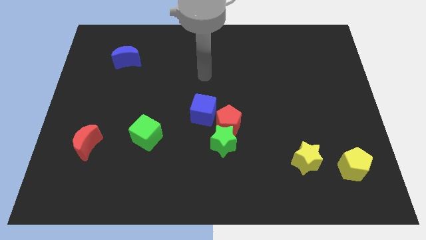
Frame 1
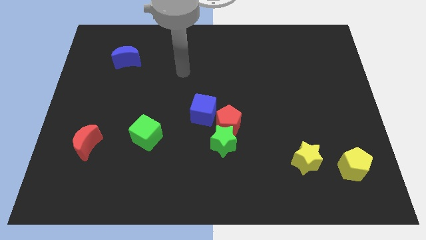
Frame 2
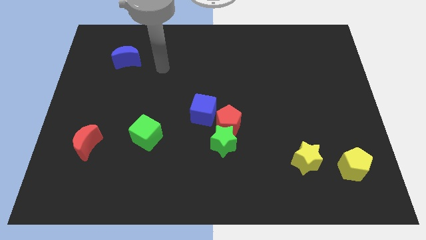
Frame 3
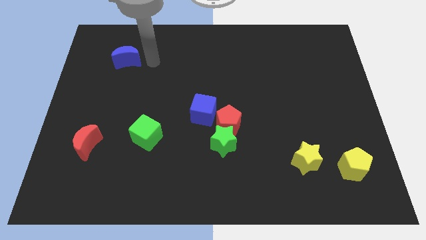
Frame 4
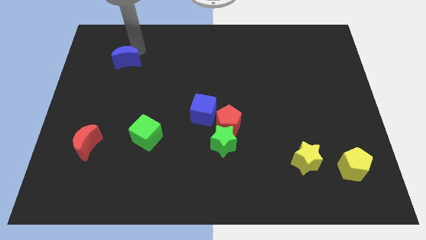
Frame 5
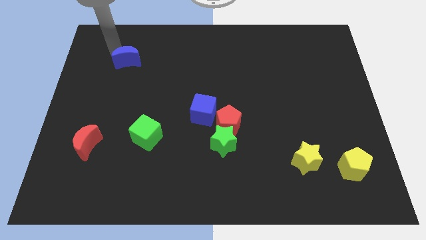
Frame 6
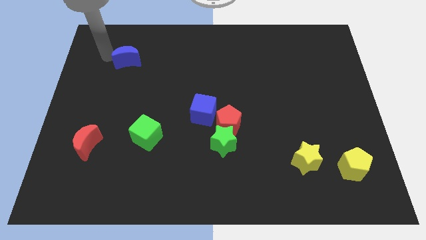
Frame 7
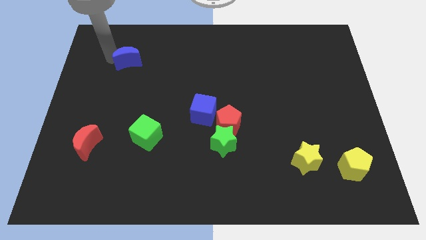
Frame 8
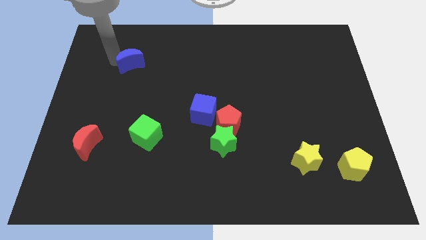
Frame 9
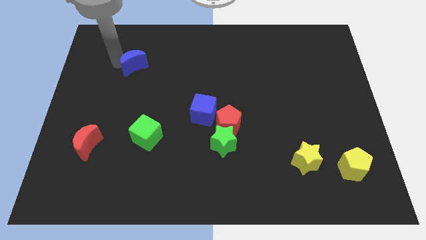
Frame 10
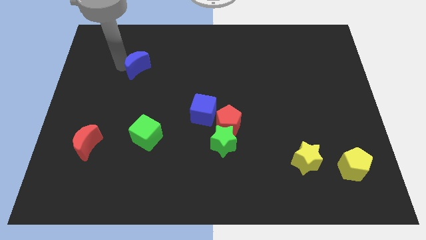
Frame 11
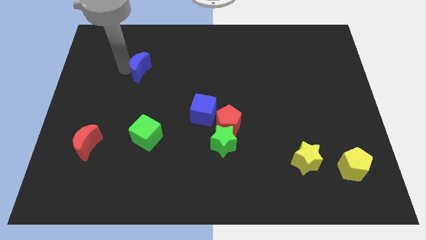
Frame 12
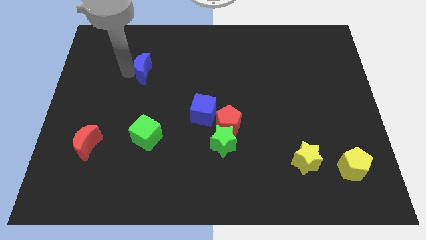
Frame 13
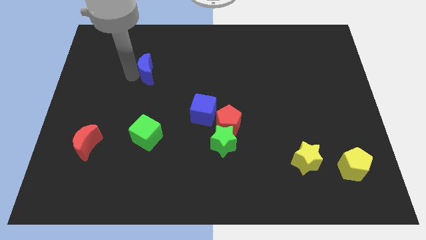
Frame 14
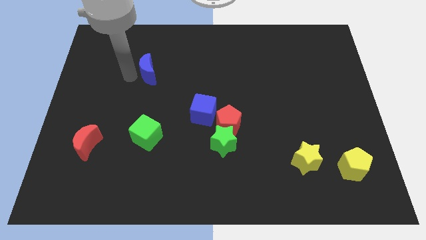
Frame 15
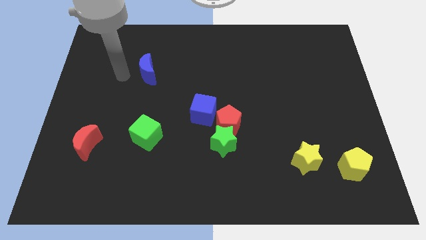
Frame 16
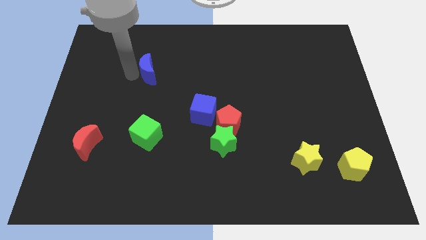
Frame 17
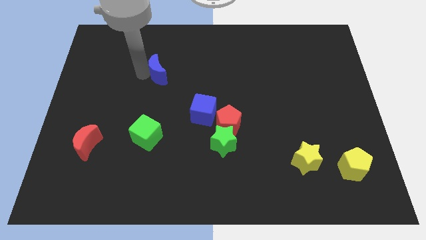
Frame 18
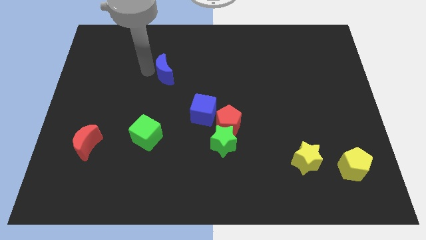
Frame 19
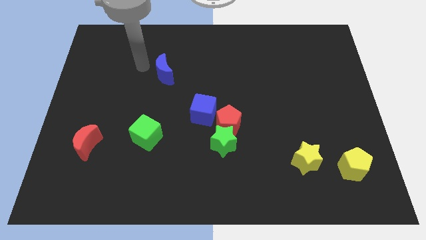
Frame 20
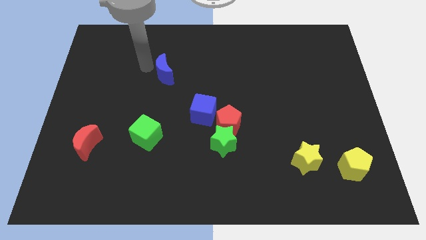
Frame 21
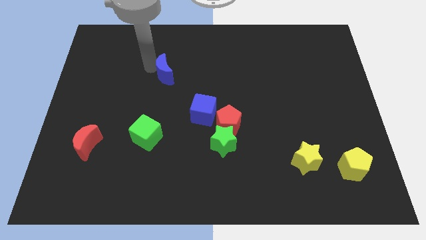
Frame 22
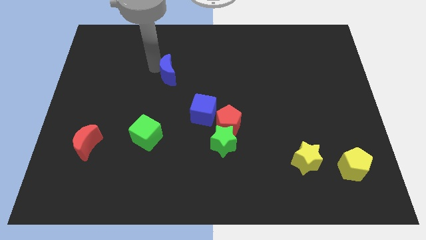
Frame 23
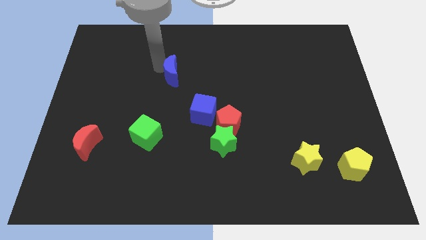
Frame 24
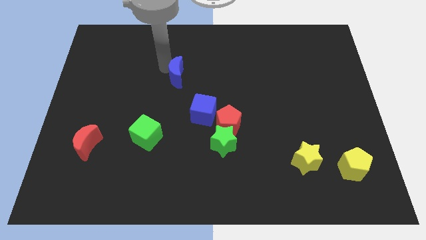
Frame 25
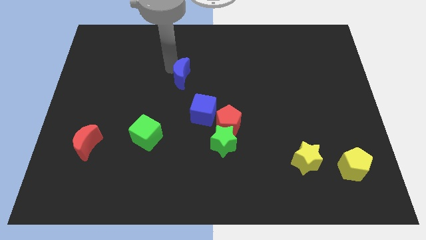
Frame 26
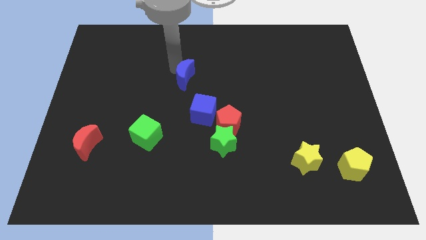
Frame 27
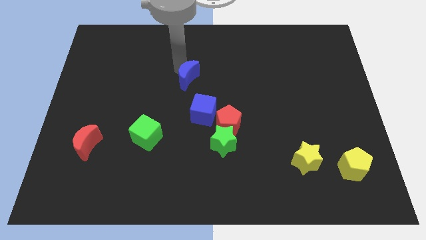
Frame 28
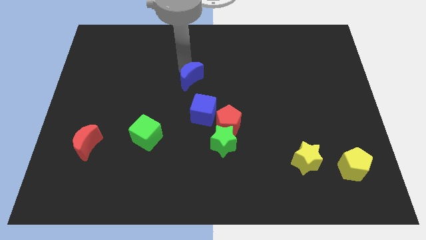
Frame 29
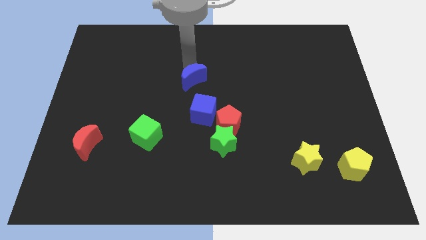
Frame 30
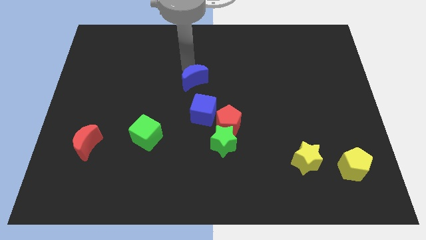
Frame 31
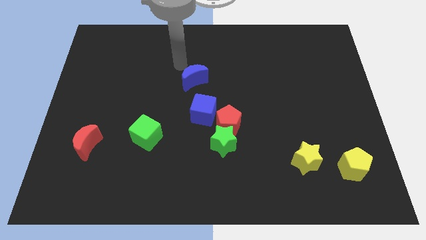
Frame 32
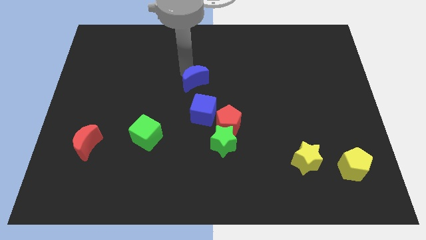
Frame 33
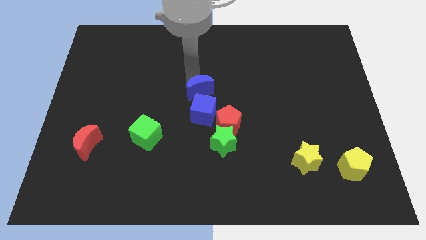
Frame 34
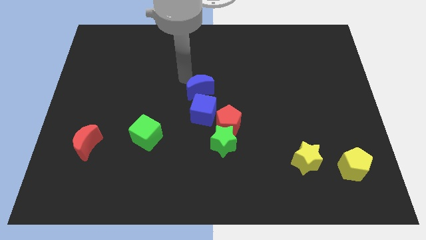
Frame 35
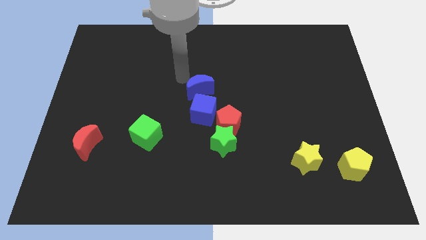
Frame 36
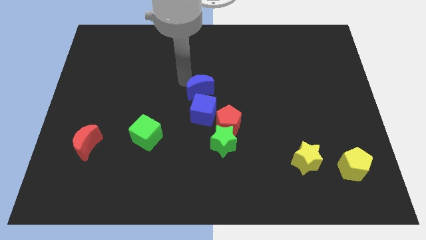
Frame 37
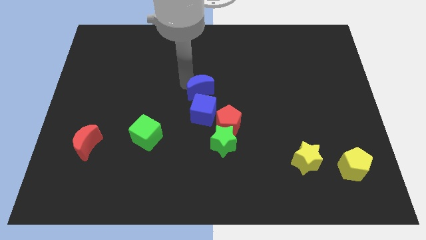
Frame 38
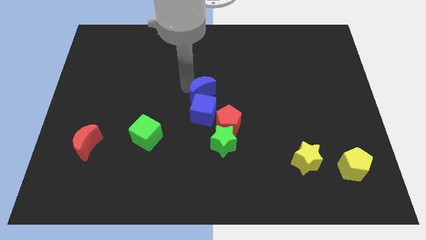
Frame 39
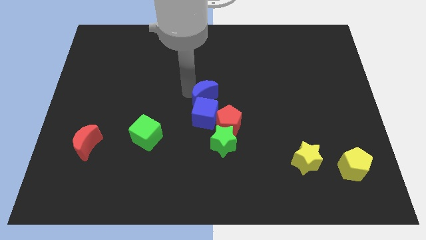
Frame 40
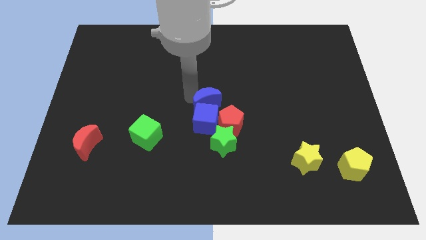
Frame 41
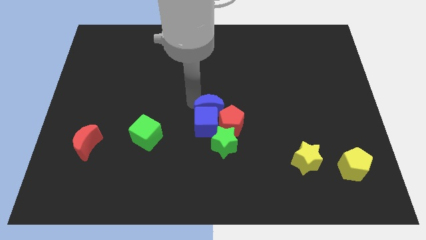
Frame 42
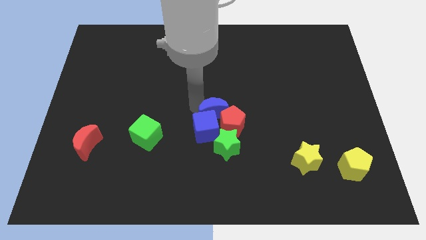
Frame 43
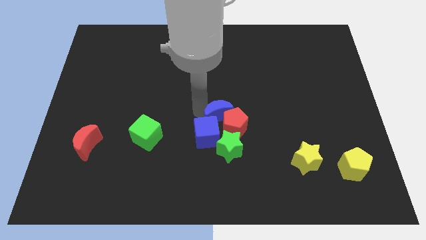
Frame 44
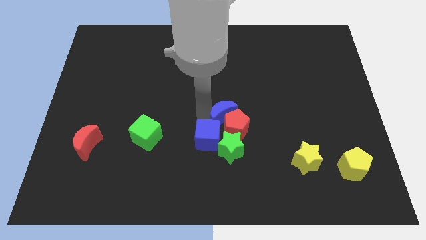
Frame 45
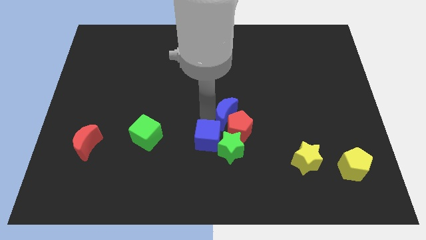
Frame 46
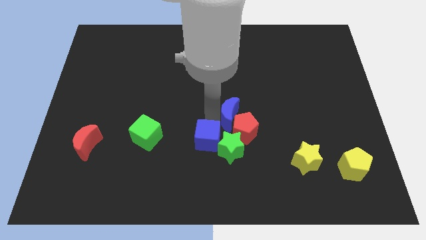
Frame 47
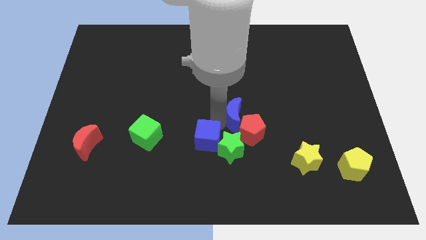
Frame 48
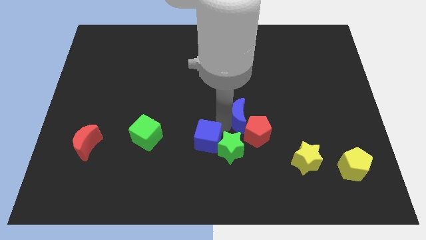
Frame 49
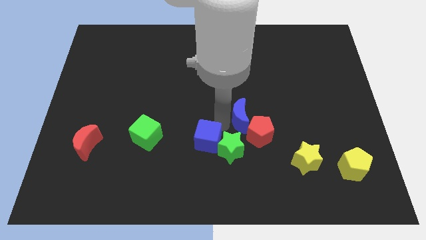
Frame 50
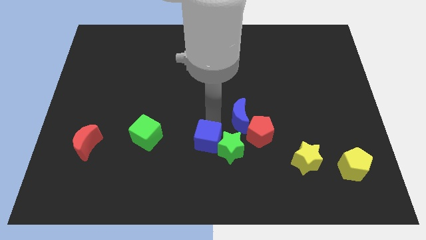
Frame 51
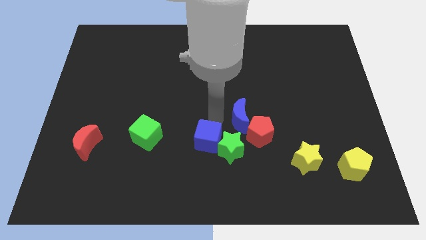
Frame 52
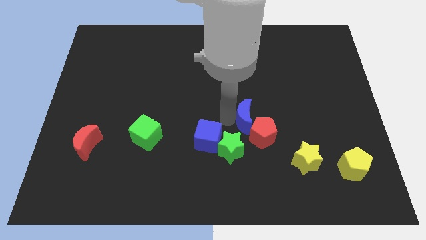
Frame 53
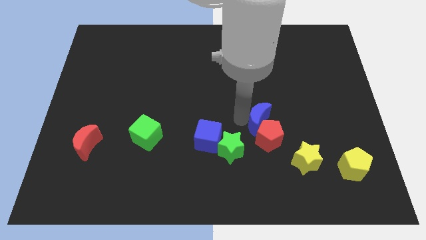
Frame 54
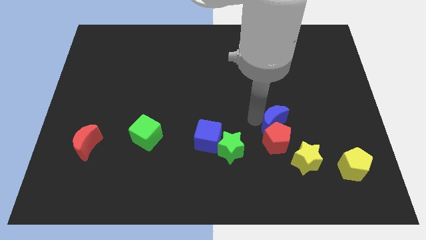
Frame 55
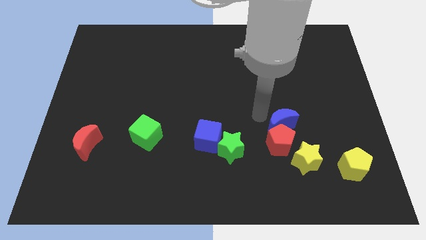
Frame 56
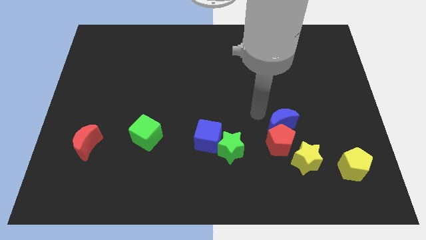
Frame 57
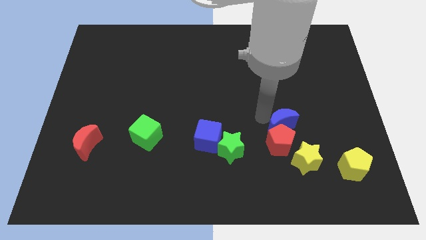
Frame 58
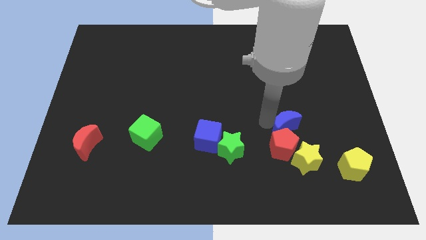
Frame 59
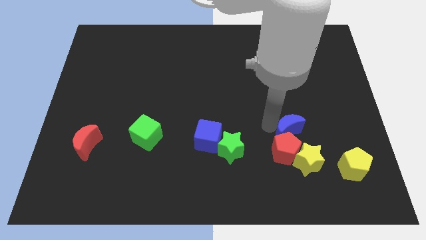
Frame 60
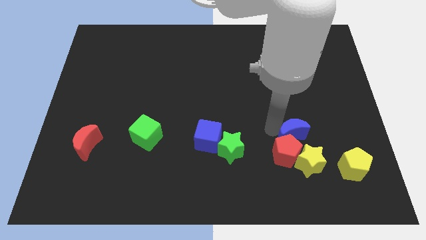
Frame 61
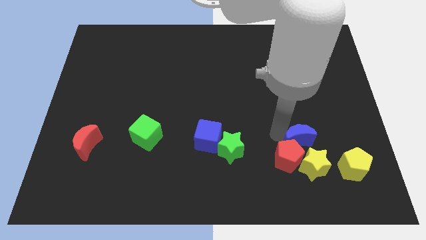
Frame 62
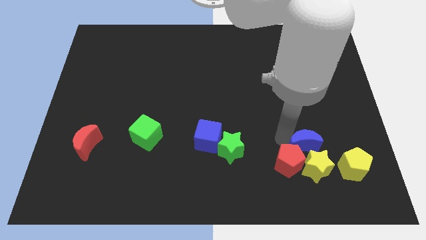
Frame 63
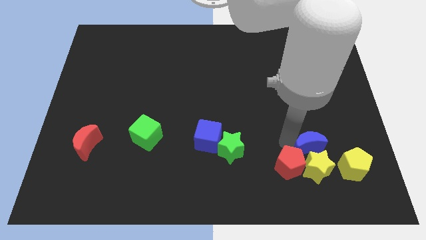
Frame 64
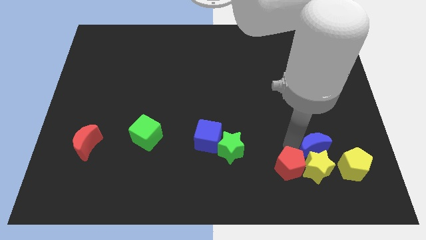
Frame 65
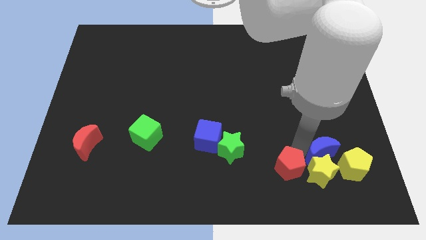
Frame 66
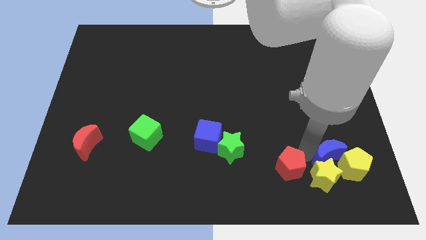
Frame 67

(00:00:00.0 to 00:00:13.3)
put the blue moon next to the yellow pentagon

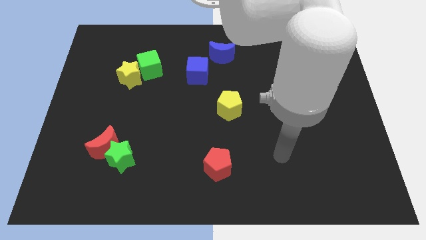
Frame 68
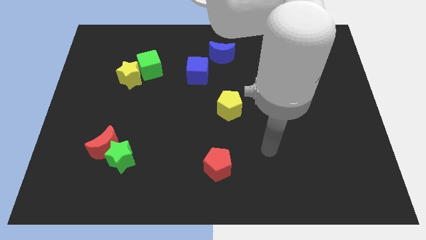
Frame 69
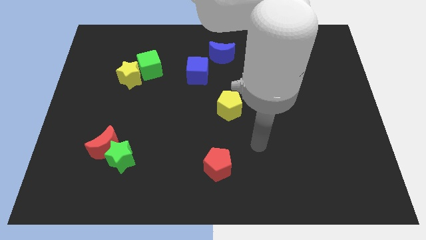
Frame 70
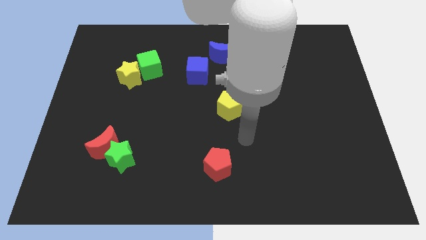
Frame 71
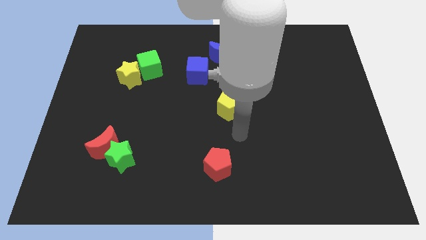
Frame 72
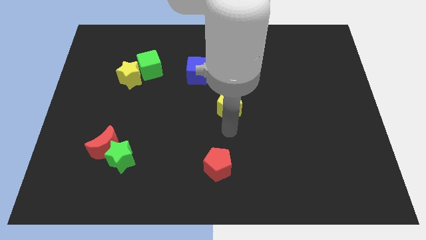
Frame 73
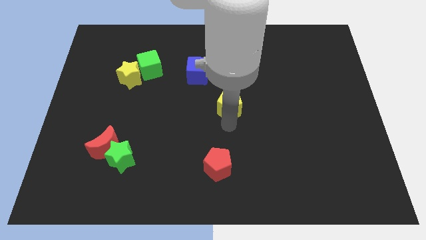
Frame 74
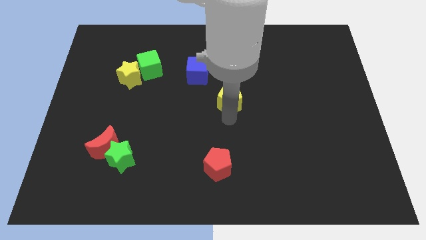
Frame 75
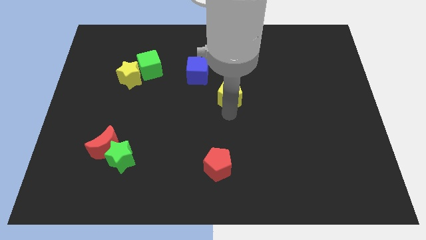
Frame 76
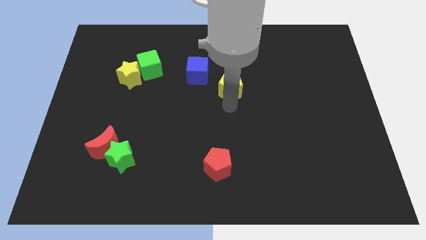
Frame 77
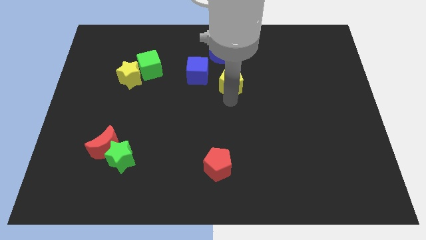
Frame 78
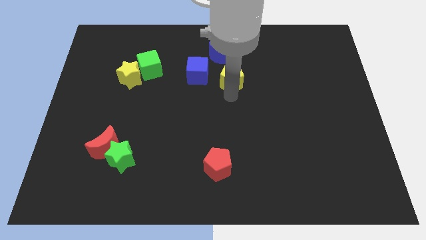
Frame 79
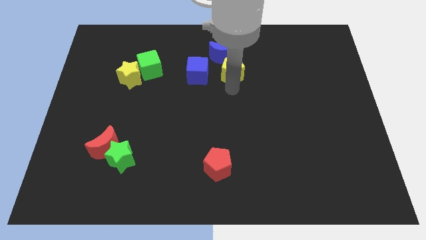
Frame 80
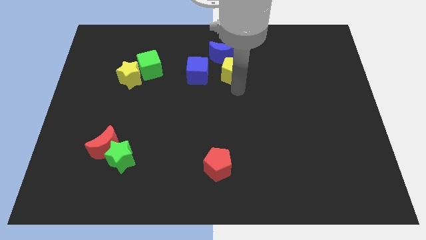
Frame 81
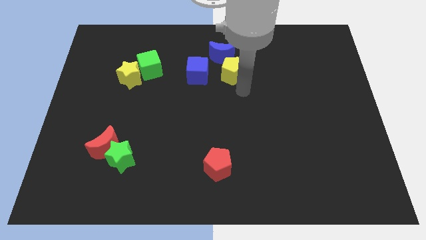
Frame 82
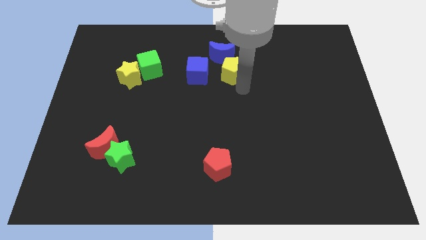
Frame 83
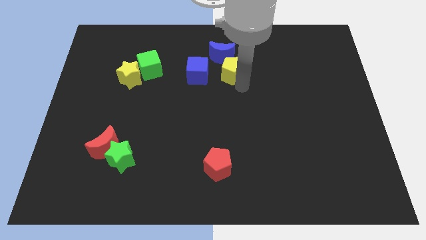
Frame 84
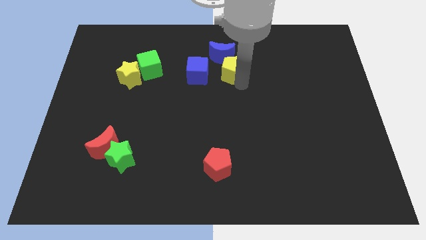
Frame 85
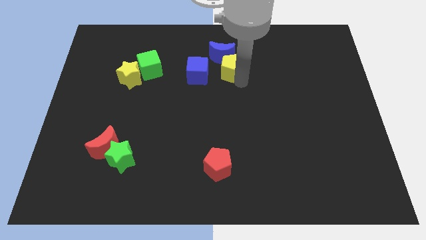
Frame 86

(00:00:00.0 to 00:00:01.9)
put the yellow pentagon towards the blue moon
